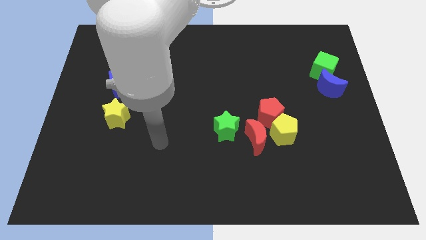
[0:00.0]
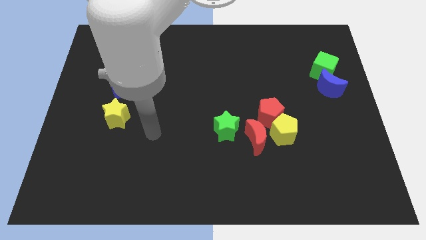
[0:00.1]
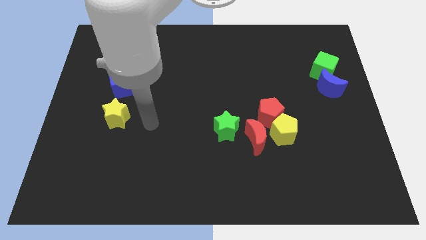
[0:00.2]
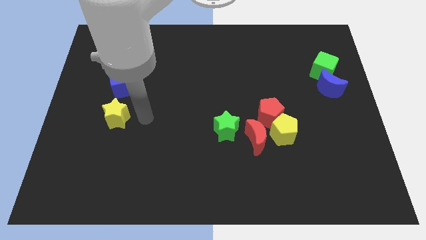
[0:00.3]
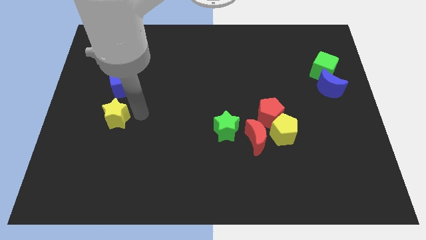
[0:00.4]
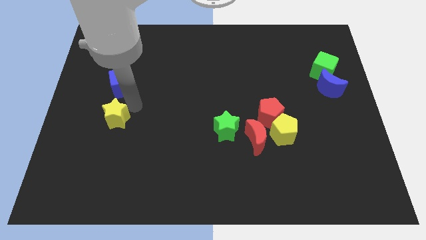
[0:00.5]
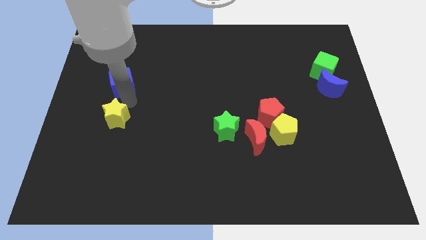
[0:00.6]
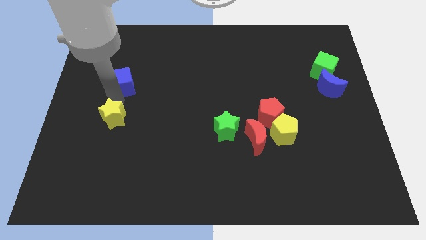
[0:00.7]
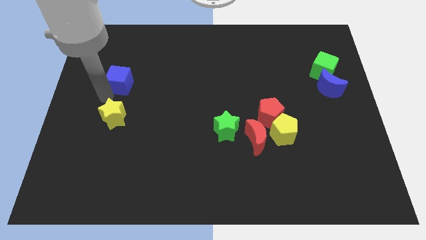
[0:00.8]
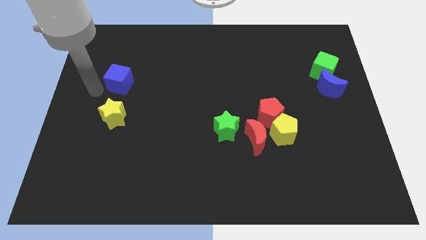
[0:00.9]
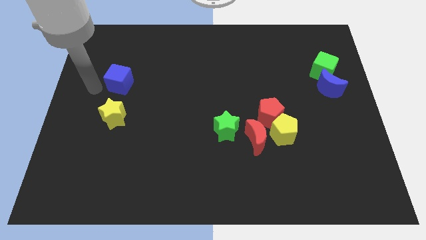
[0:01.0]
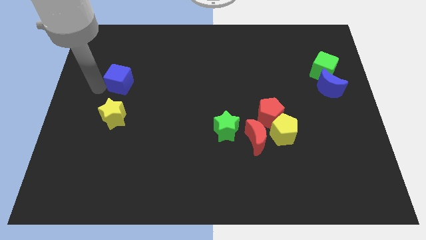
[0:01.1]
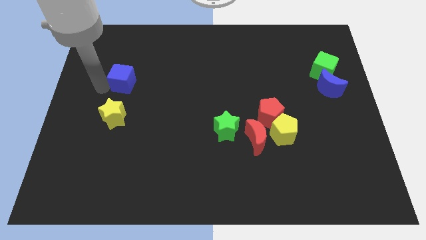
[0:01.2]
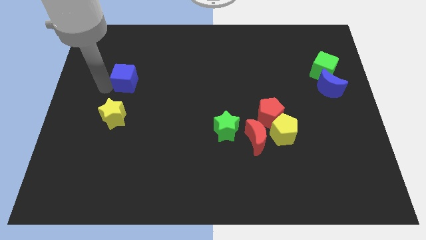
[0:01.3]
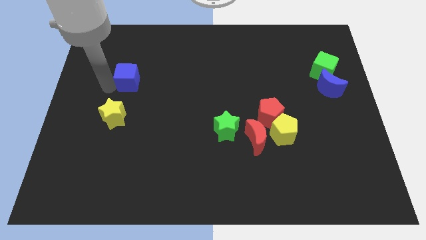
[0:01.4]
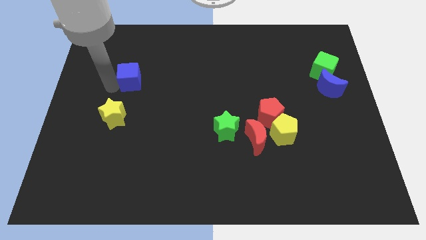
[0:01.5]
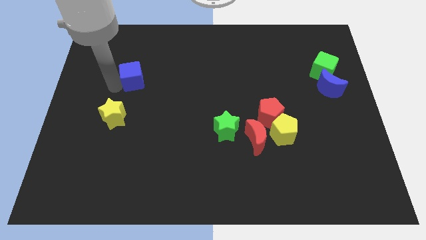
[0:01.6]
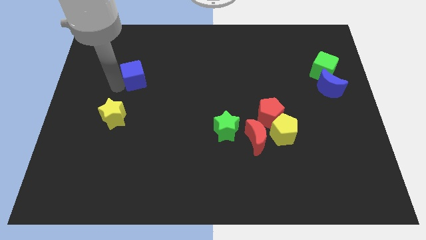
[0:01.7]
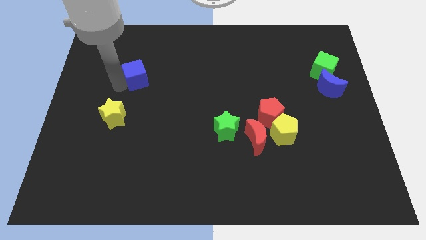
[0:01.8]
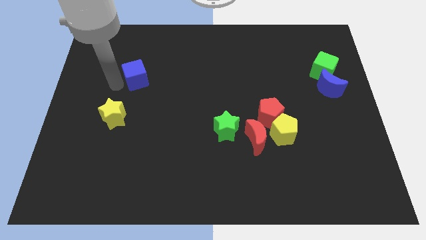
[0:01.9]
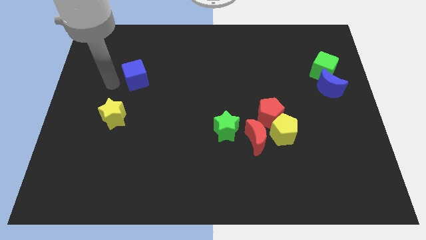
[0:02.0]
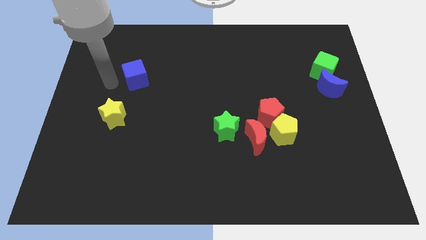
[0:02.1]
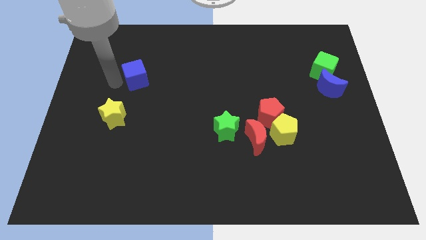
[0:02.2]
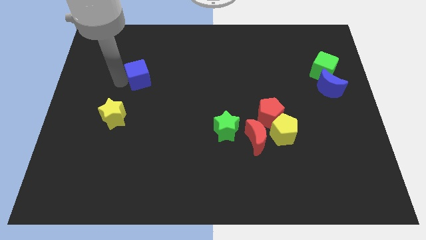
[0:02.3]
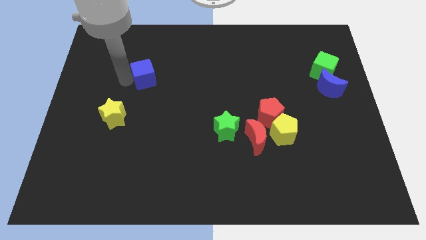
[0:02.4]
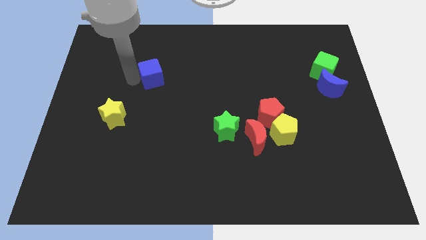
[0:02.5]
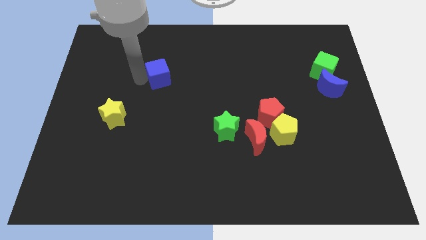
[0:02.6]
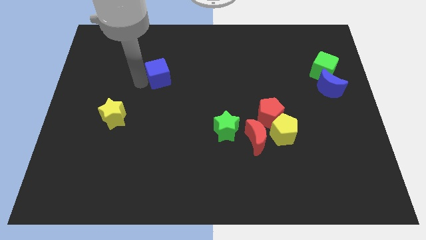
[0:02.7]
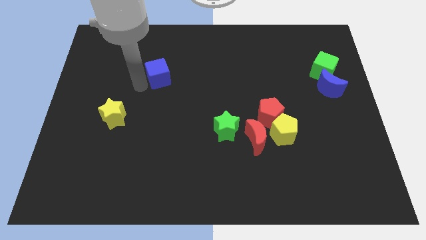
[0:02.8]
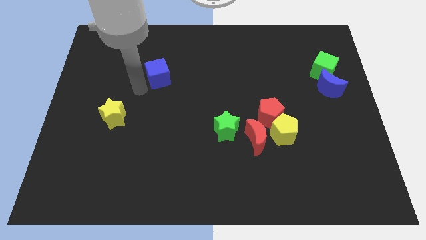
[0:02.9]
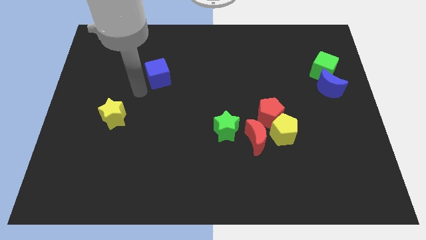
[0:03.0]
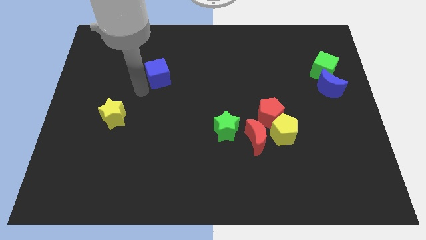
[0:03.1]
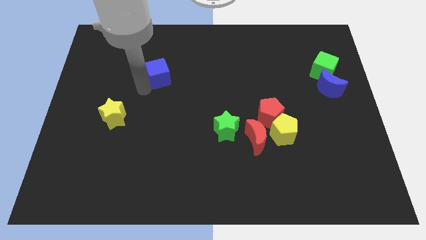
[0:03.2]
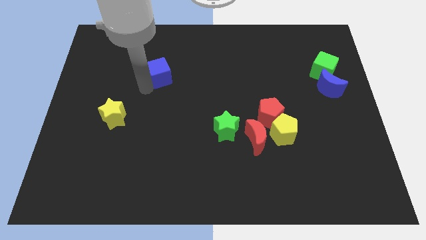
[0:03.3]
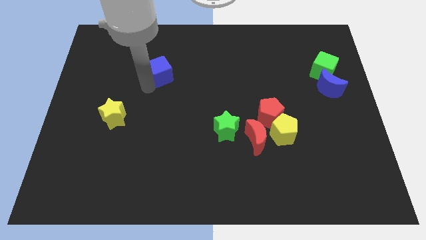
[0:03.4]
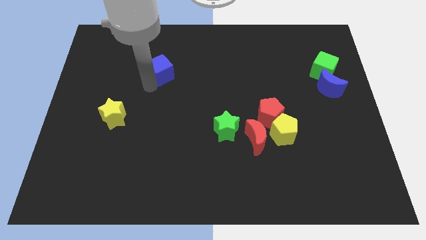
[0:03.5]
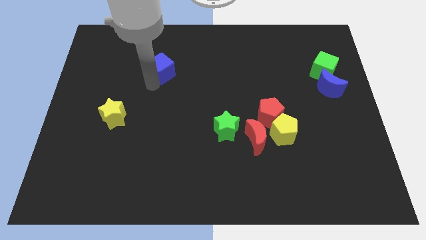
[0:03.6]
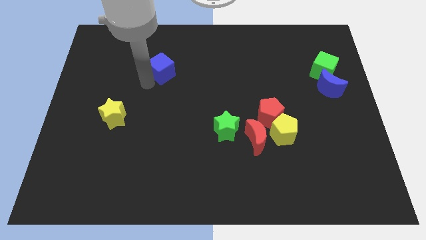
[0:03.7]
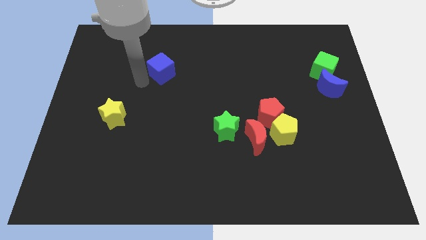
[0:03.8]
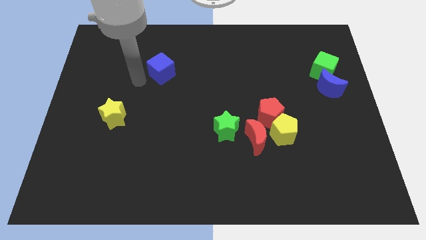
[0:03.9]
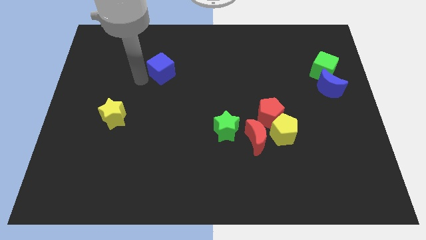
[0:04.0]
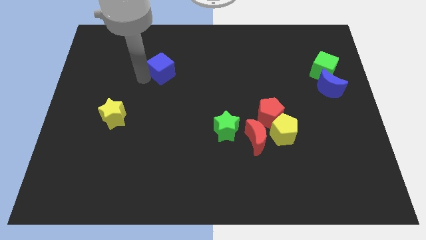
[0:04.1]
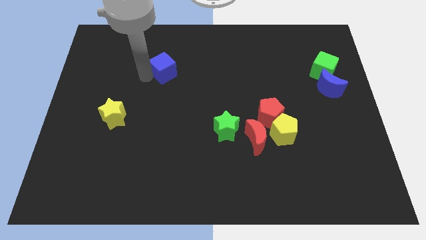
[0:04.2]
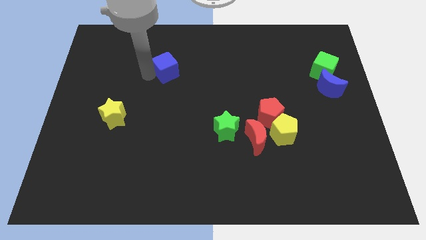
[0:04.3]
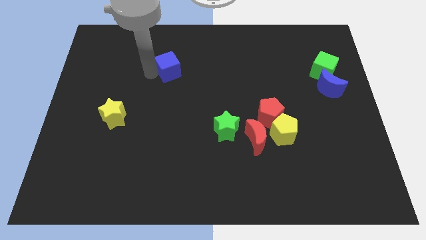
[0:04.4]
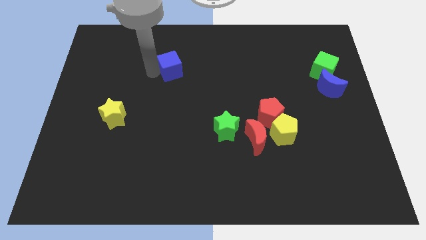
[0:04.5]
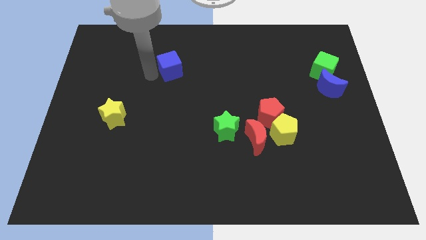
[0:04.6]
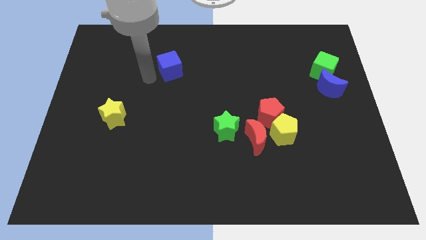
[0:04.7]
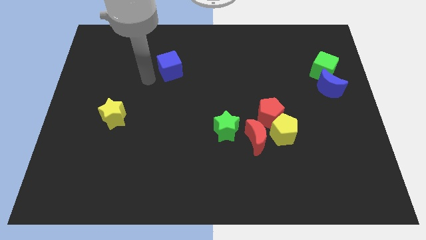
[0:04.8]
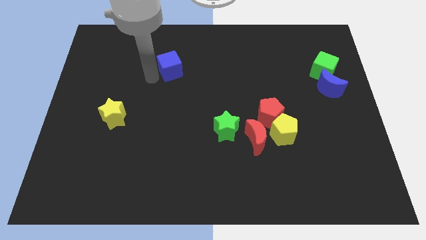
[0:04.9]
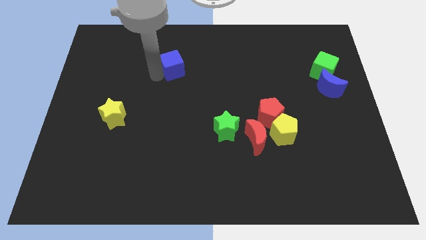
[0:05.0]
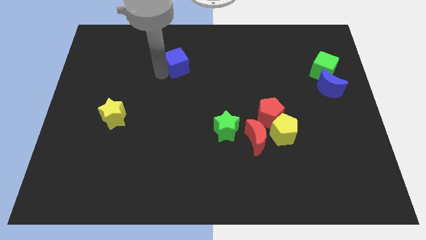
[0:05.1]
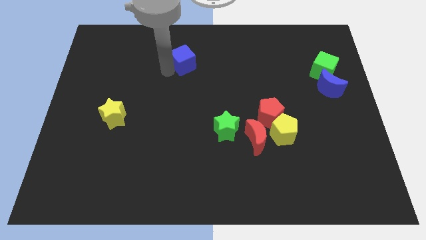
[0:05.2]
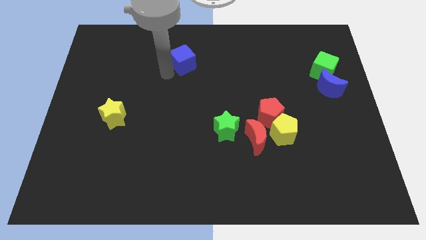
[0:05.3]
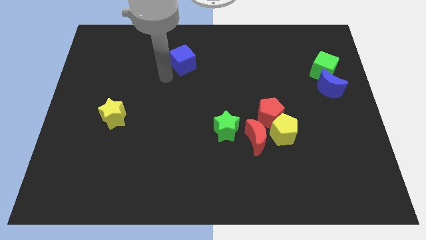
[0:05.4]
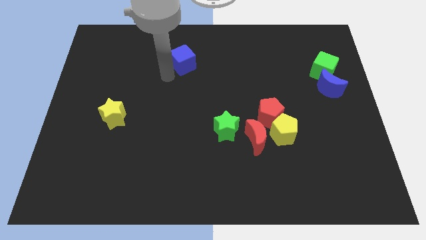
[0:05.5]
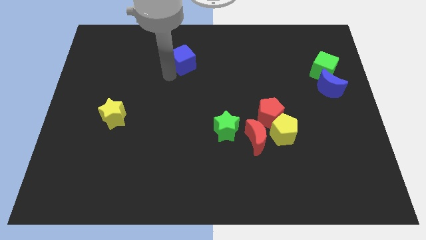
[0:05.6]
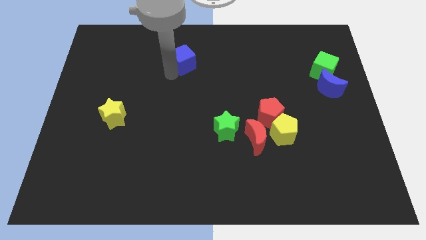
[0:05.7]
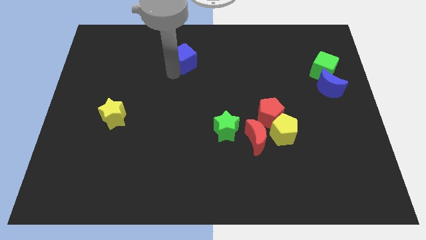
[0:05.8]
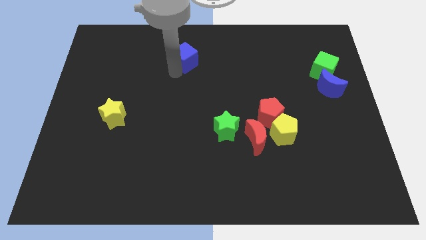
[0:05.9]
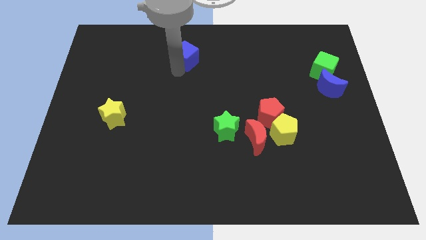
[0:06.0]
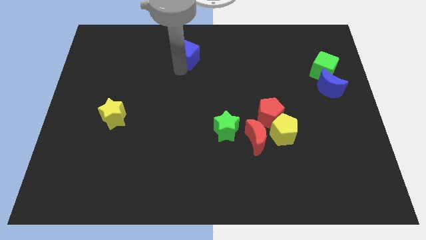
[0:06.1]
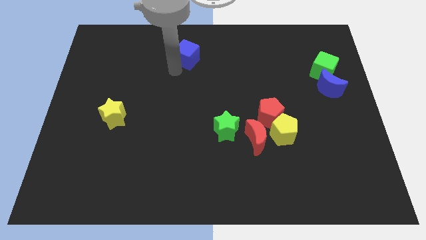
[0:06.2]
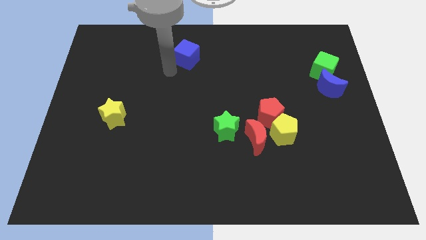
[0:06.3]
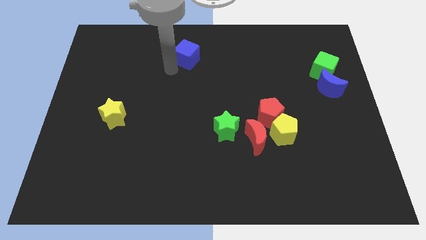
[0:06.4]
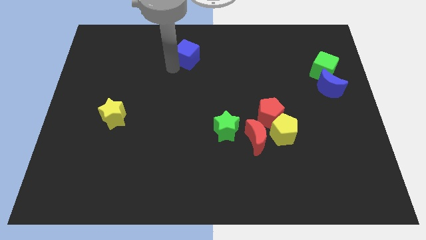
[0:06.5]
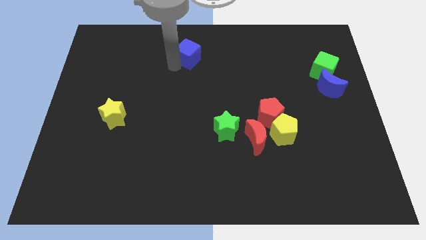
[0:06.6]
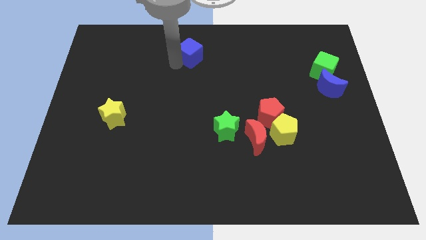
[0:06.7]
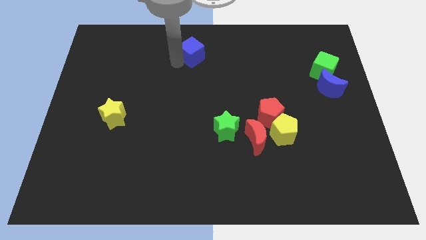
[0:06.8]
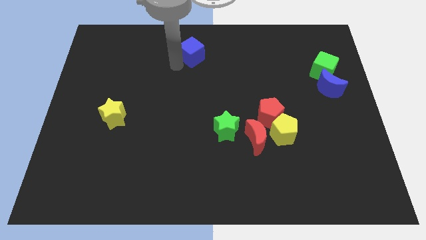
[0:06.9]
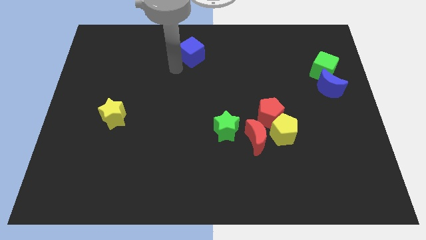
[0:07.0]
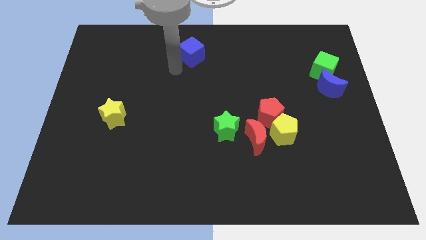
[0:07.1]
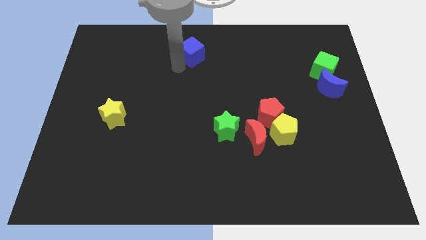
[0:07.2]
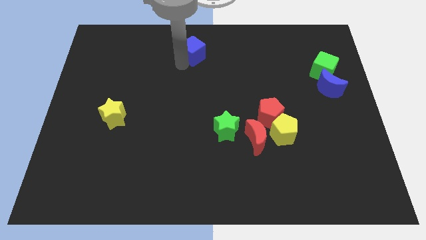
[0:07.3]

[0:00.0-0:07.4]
move the blue cube to the top side
